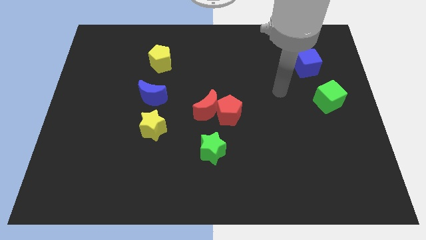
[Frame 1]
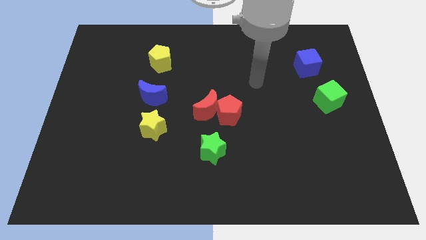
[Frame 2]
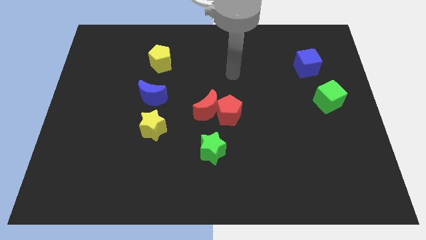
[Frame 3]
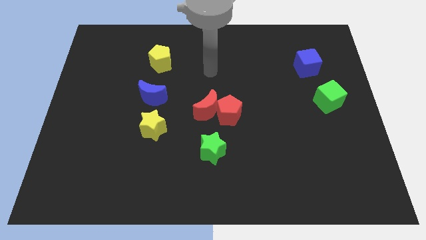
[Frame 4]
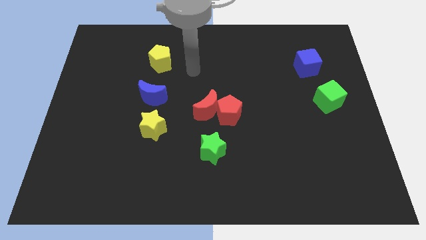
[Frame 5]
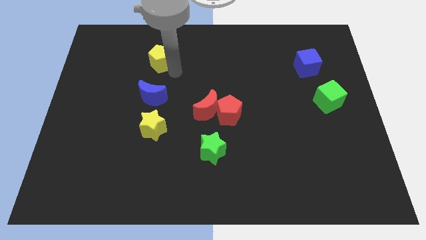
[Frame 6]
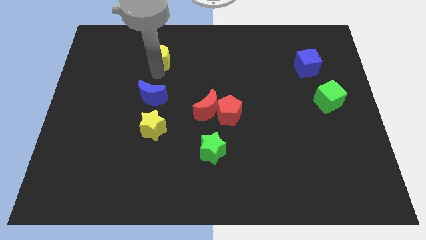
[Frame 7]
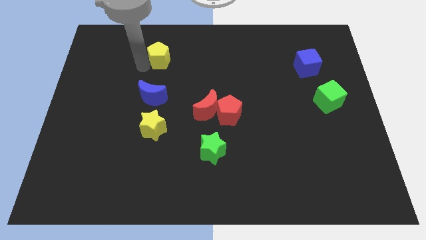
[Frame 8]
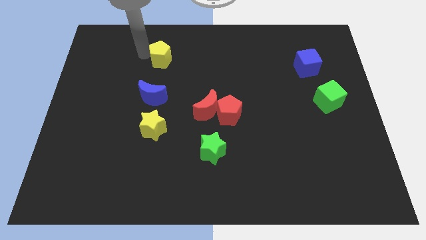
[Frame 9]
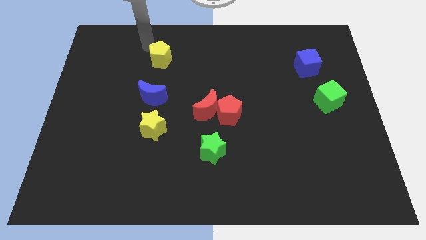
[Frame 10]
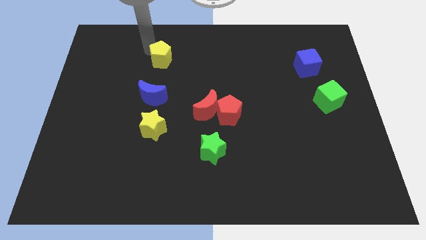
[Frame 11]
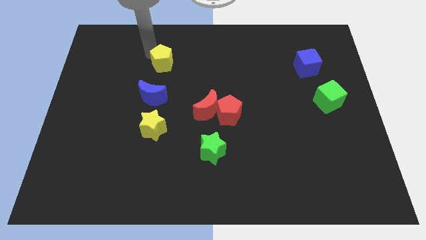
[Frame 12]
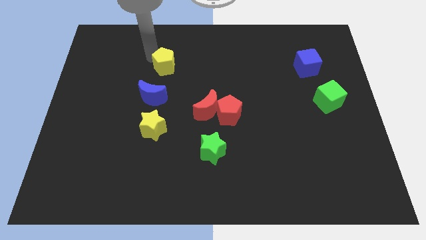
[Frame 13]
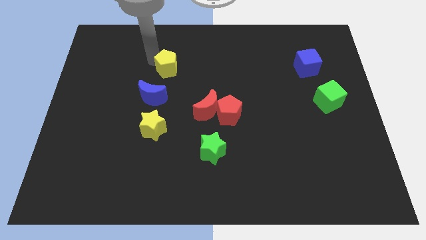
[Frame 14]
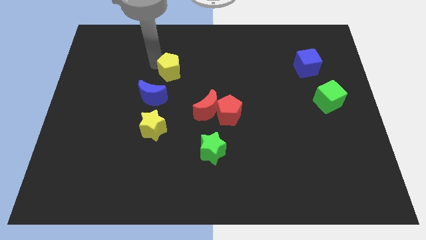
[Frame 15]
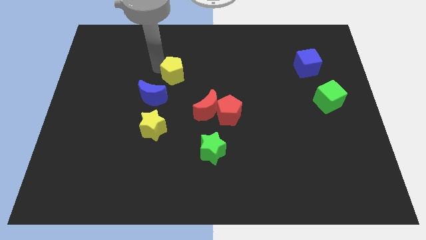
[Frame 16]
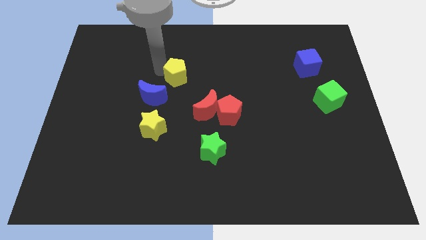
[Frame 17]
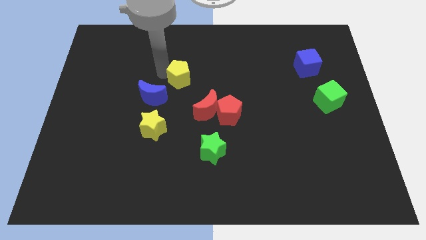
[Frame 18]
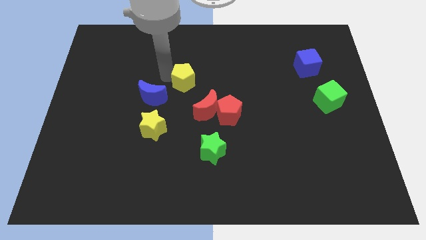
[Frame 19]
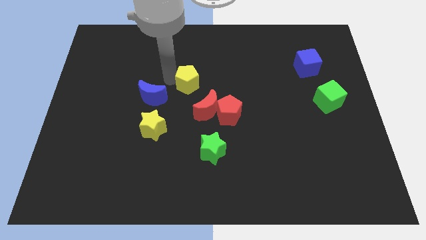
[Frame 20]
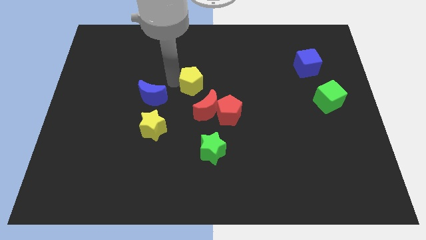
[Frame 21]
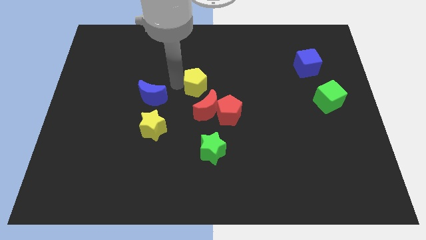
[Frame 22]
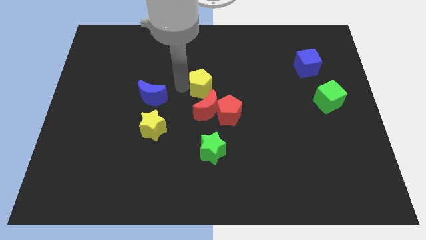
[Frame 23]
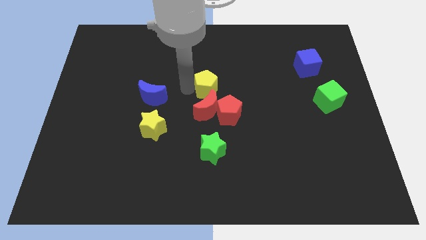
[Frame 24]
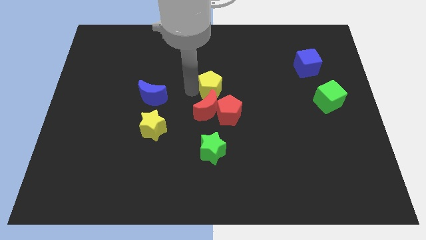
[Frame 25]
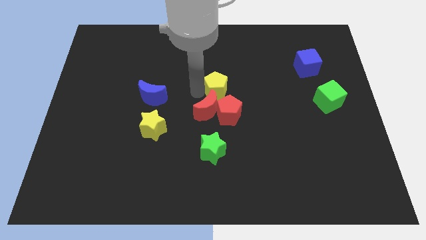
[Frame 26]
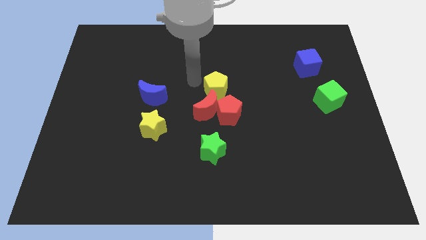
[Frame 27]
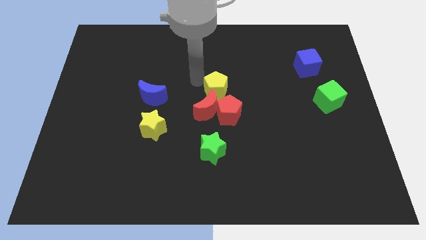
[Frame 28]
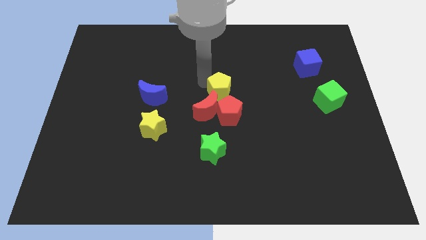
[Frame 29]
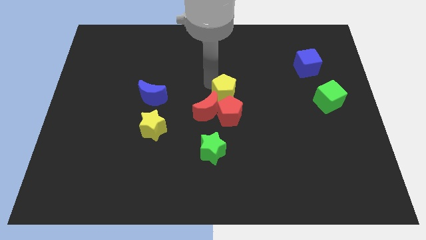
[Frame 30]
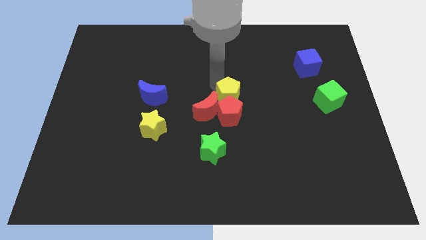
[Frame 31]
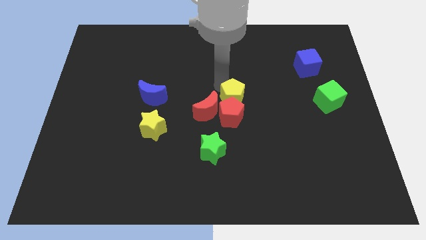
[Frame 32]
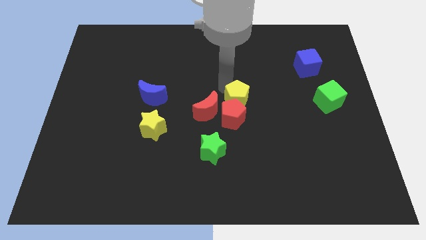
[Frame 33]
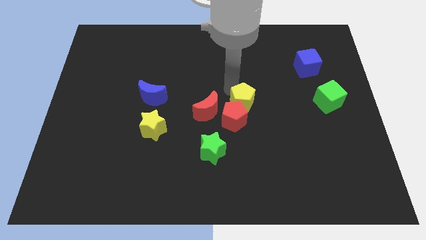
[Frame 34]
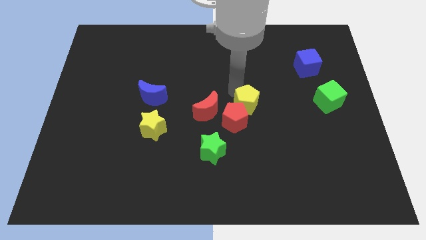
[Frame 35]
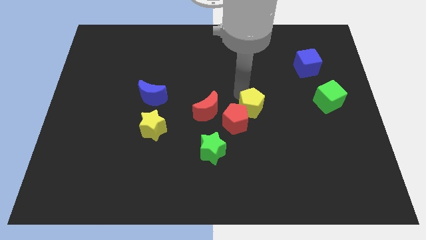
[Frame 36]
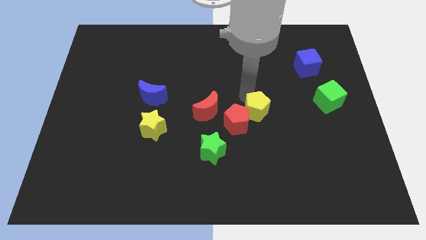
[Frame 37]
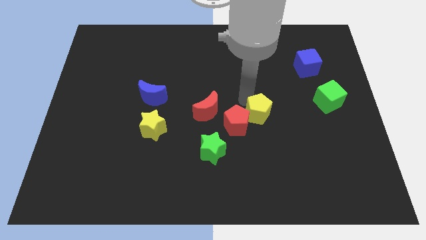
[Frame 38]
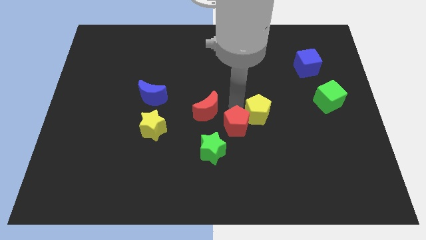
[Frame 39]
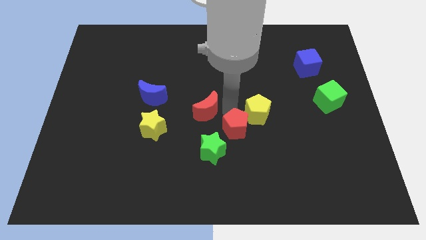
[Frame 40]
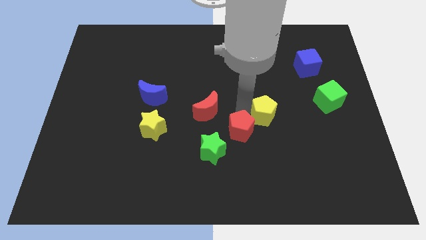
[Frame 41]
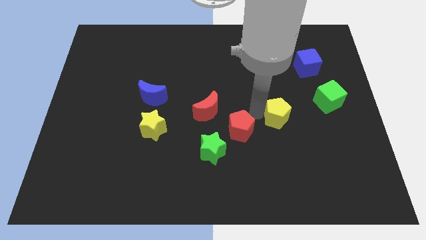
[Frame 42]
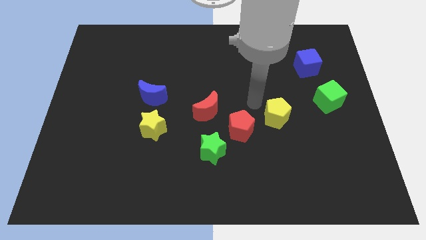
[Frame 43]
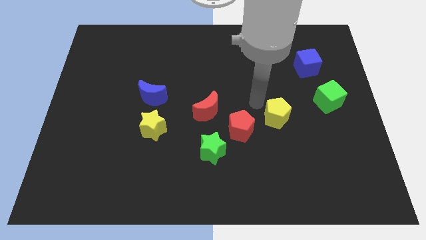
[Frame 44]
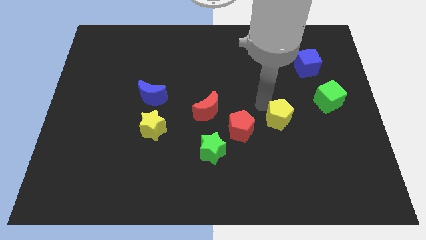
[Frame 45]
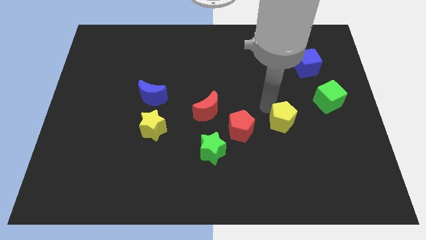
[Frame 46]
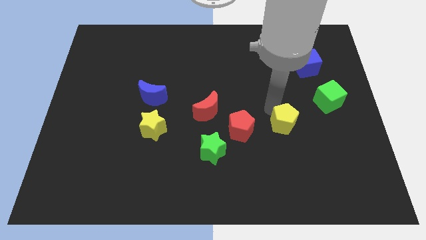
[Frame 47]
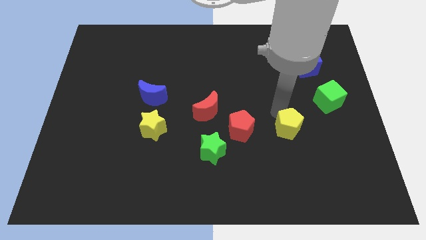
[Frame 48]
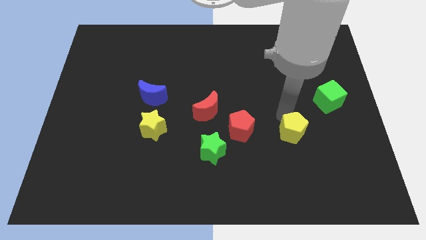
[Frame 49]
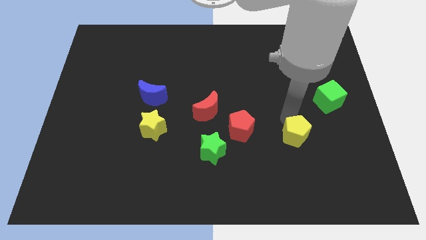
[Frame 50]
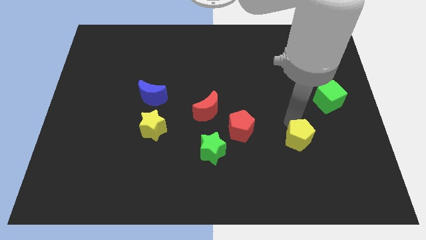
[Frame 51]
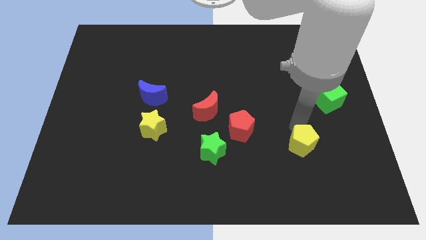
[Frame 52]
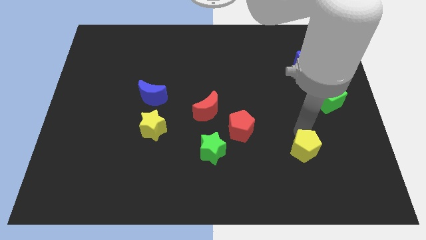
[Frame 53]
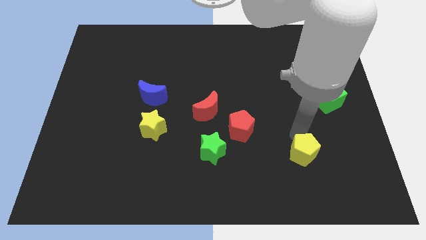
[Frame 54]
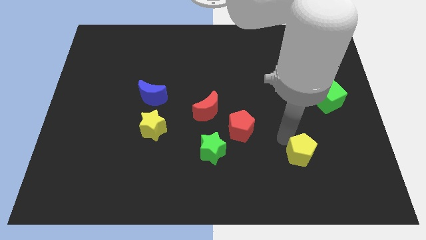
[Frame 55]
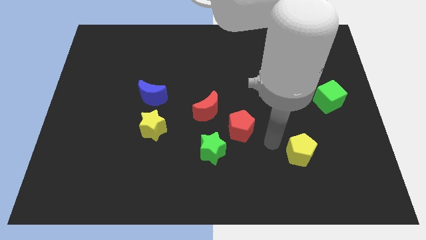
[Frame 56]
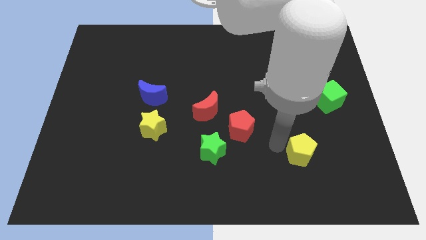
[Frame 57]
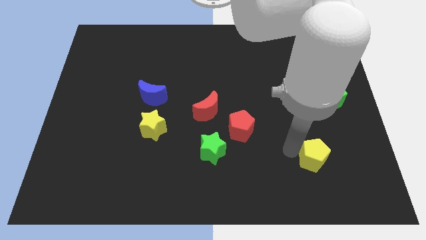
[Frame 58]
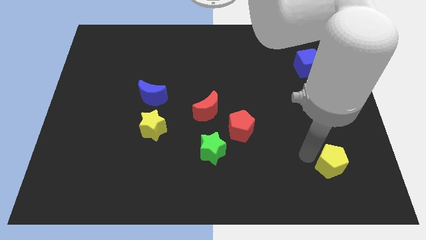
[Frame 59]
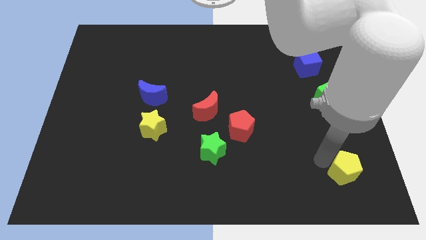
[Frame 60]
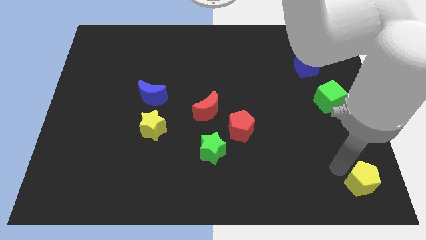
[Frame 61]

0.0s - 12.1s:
put the yellow pentagon to the bottom right

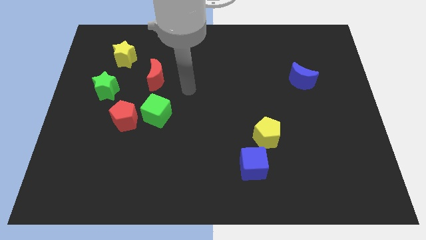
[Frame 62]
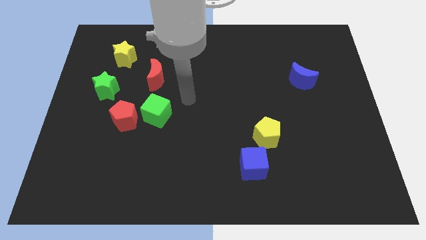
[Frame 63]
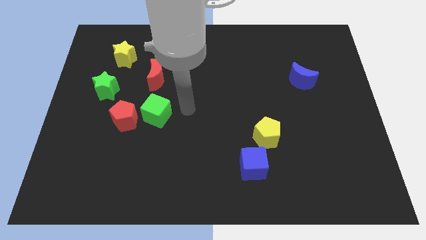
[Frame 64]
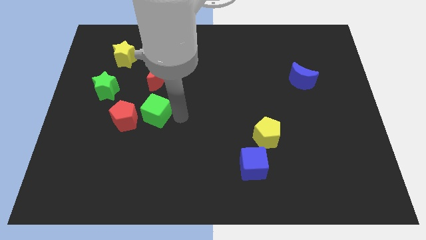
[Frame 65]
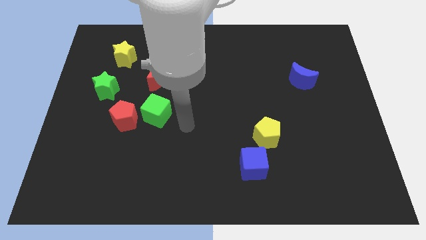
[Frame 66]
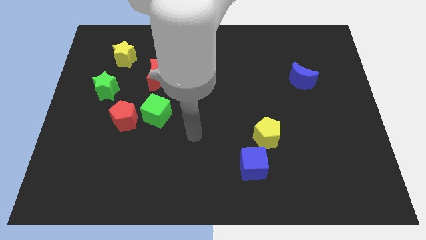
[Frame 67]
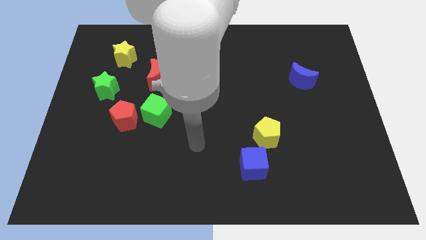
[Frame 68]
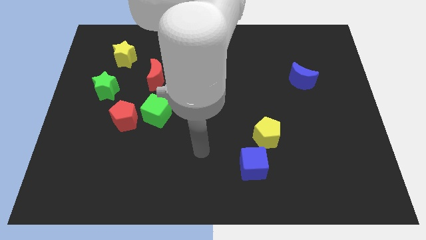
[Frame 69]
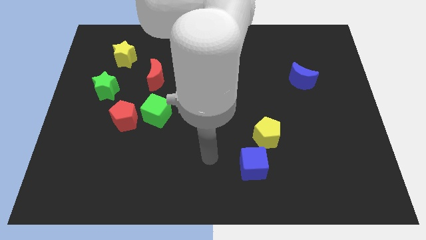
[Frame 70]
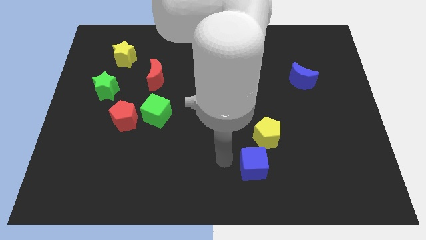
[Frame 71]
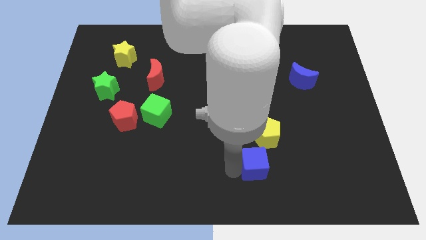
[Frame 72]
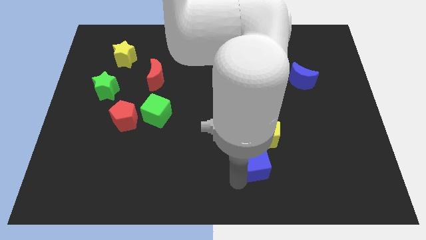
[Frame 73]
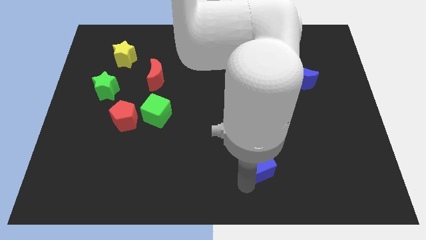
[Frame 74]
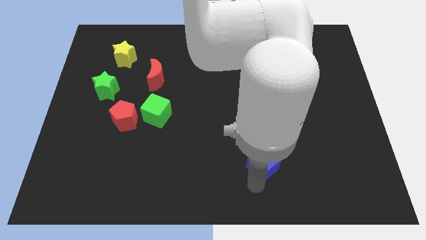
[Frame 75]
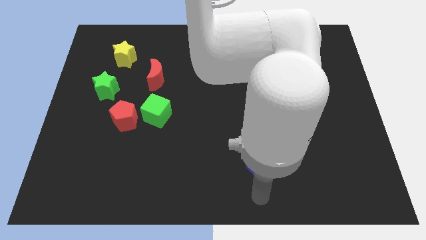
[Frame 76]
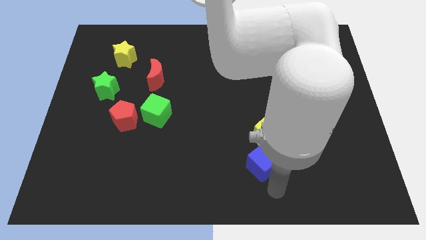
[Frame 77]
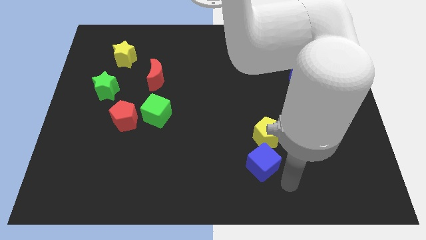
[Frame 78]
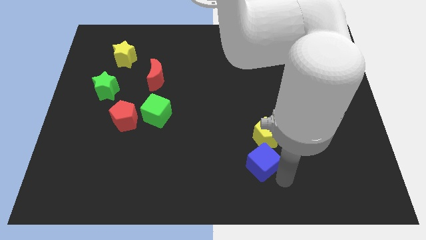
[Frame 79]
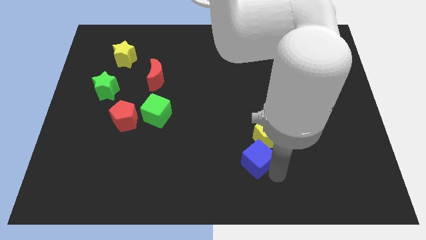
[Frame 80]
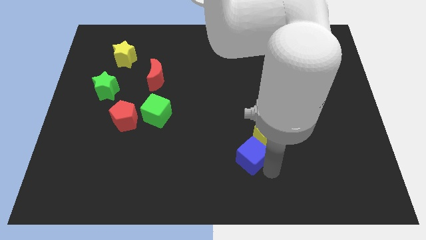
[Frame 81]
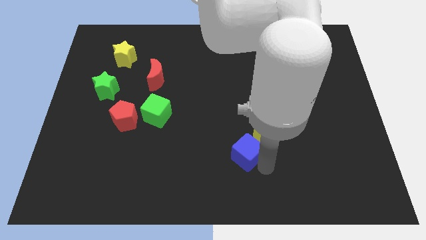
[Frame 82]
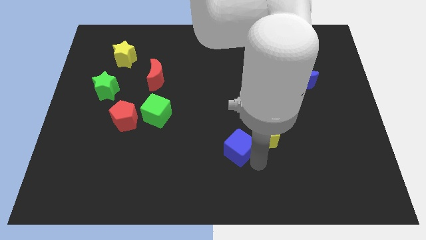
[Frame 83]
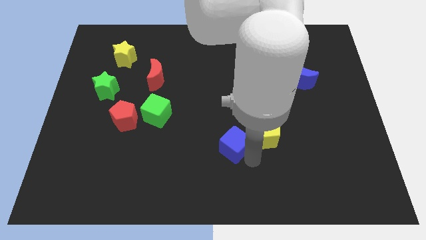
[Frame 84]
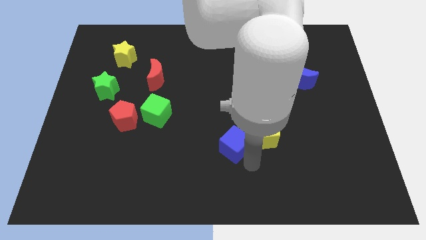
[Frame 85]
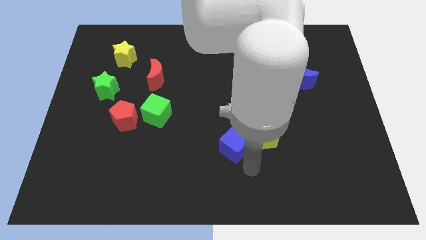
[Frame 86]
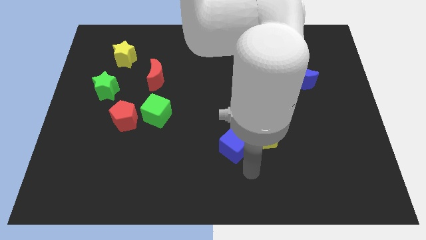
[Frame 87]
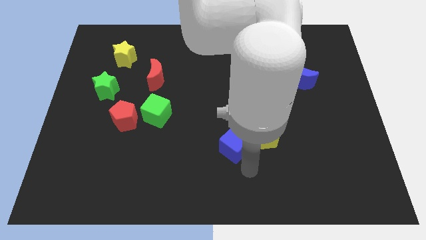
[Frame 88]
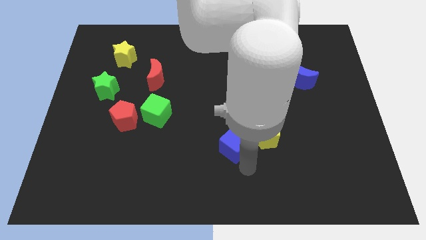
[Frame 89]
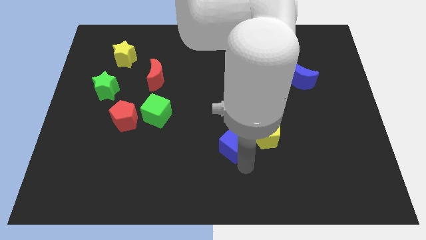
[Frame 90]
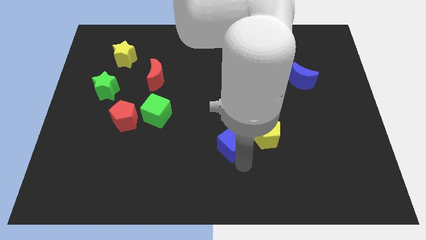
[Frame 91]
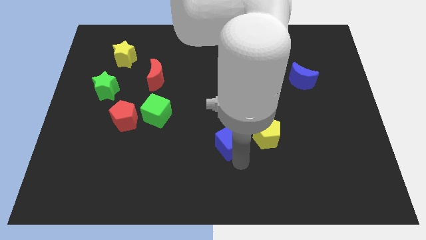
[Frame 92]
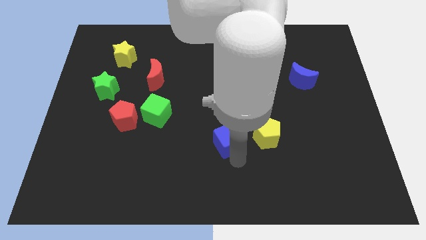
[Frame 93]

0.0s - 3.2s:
move the blue cube to the center
